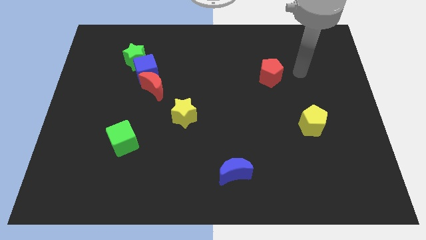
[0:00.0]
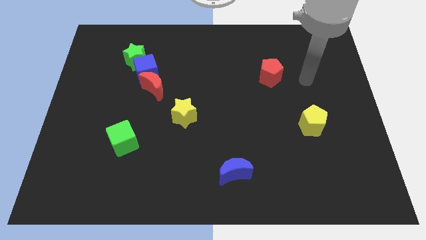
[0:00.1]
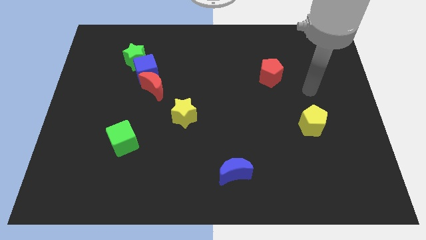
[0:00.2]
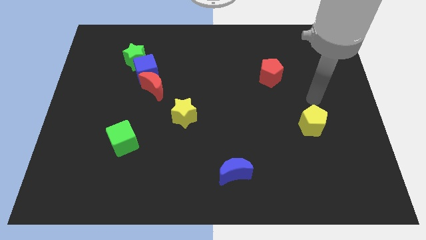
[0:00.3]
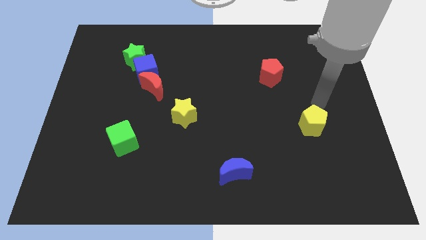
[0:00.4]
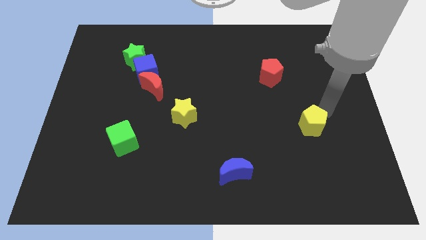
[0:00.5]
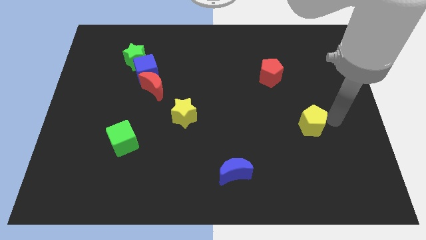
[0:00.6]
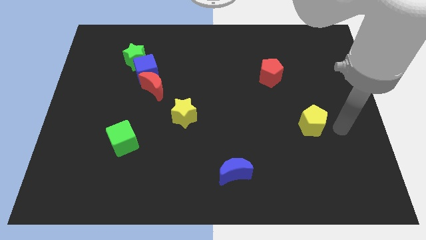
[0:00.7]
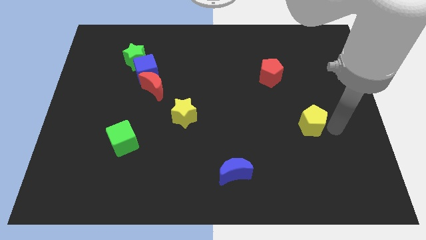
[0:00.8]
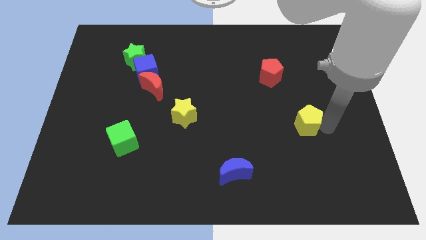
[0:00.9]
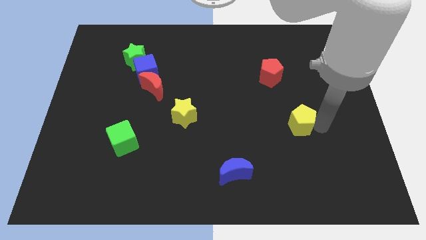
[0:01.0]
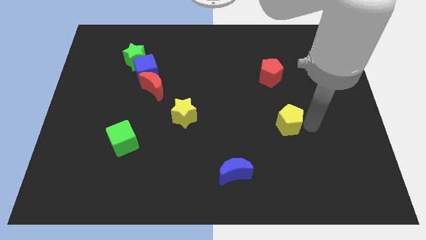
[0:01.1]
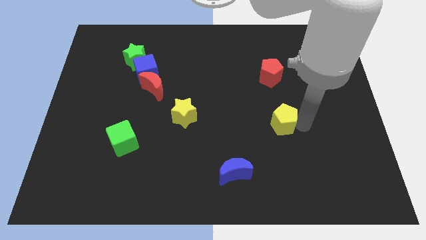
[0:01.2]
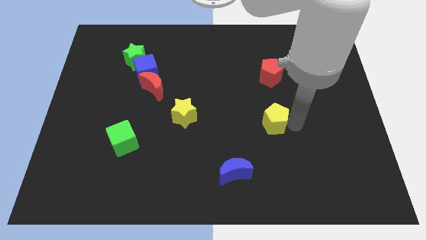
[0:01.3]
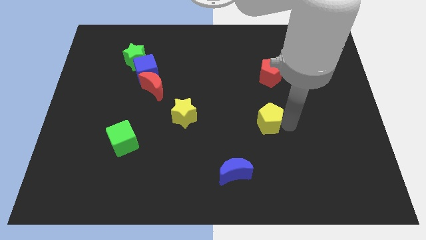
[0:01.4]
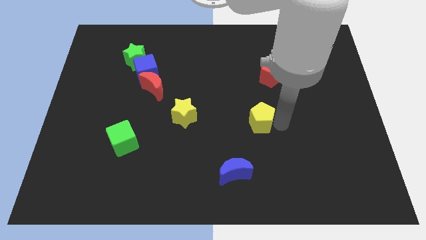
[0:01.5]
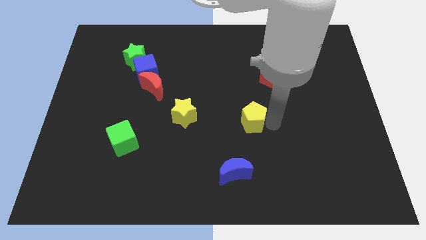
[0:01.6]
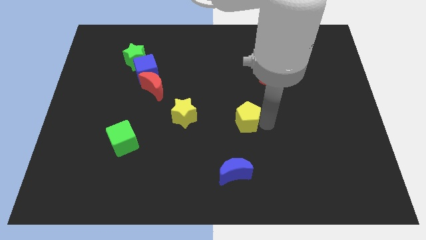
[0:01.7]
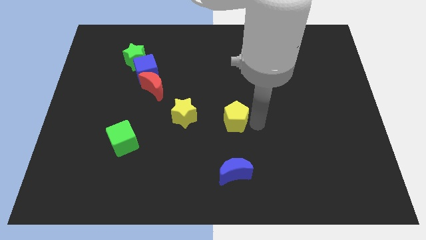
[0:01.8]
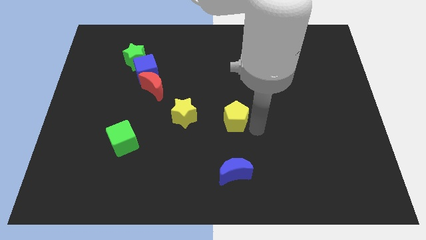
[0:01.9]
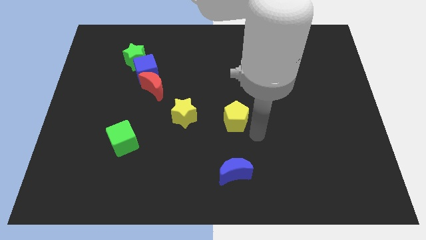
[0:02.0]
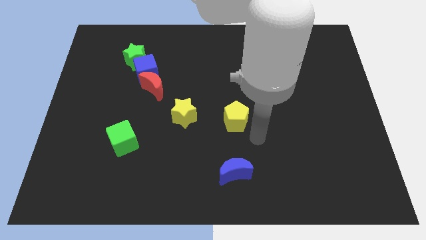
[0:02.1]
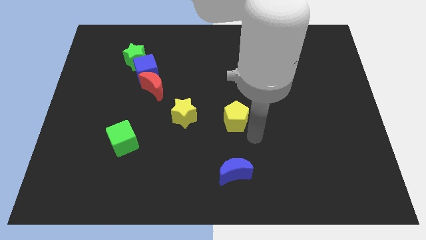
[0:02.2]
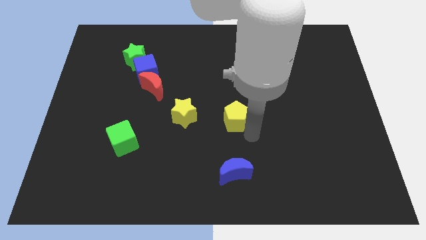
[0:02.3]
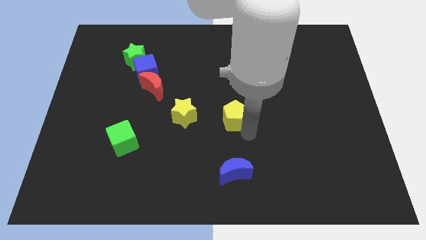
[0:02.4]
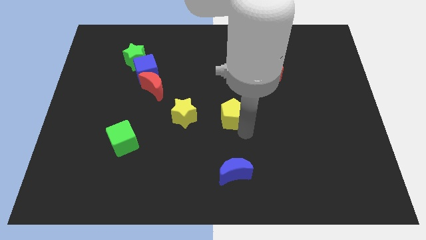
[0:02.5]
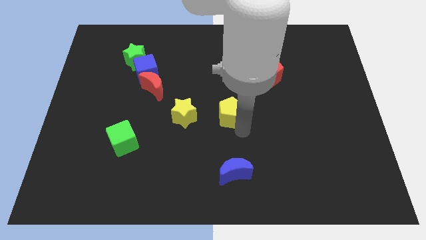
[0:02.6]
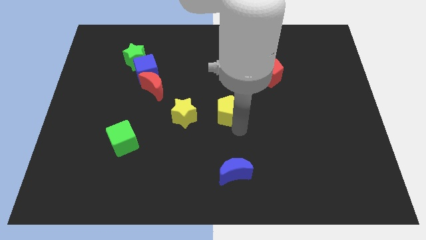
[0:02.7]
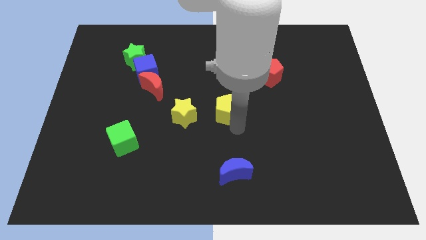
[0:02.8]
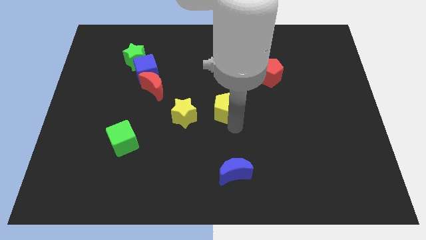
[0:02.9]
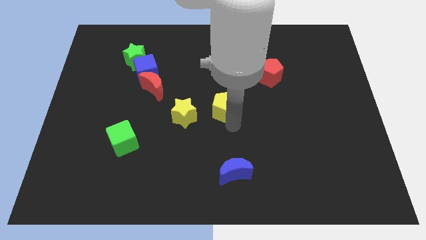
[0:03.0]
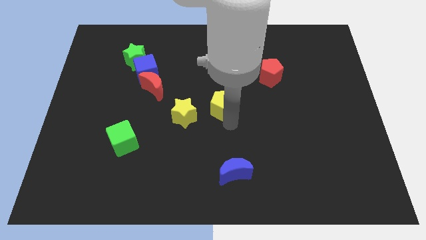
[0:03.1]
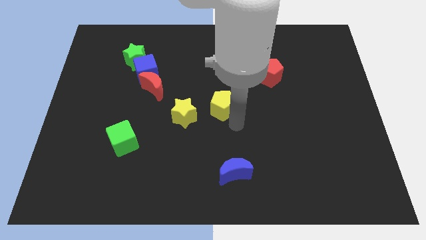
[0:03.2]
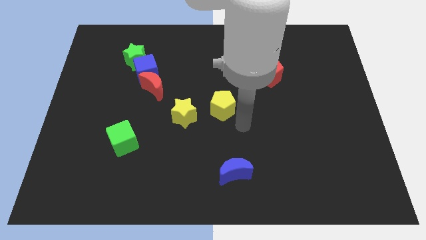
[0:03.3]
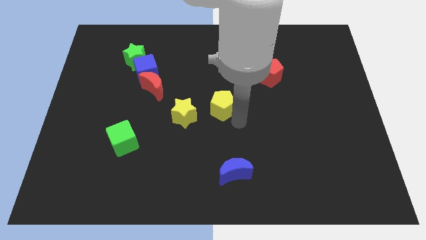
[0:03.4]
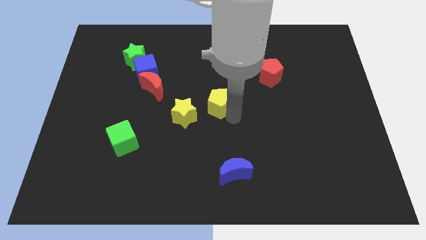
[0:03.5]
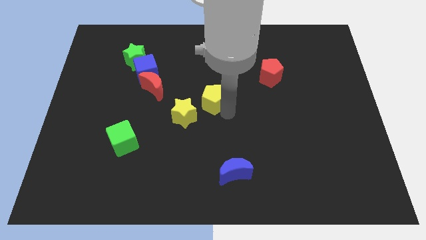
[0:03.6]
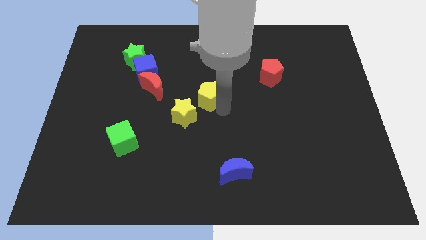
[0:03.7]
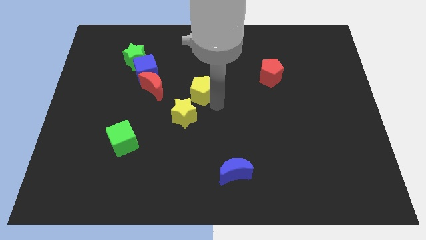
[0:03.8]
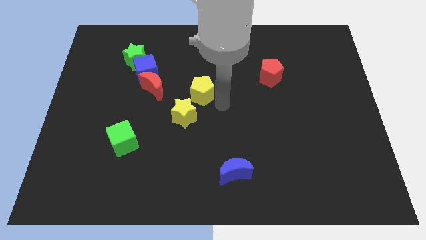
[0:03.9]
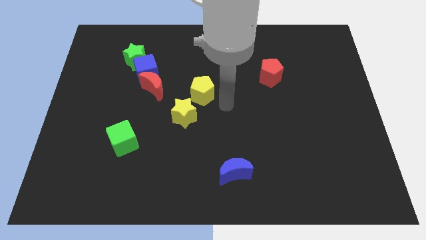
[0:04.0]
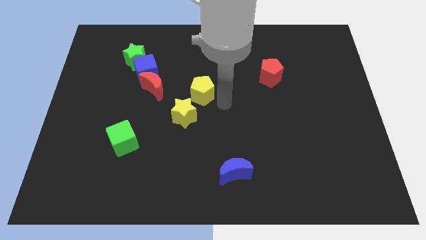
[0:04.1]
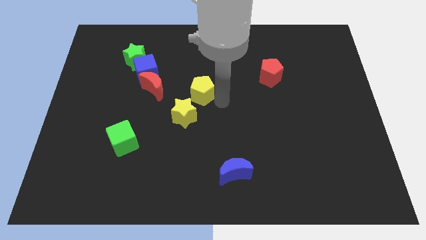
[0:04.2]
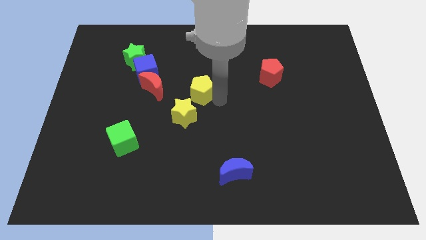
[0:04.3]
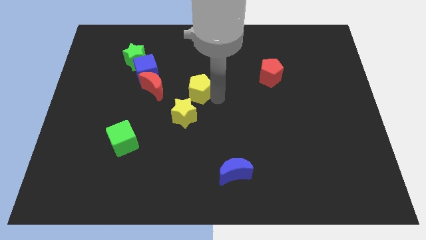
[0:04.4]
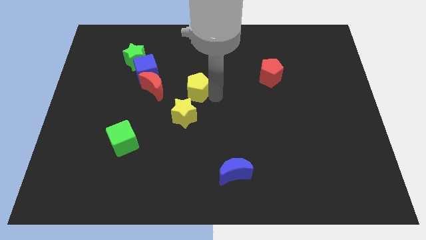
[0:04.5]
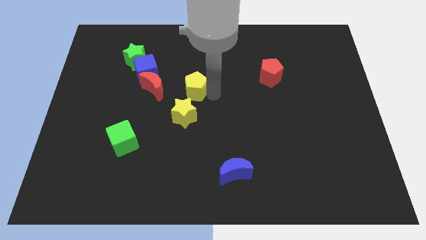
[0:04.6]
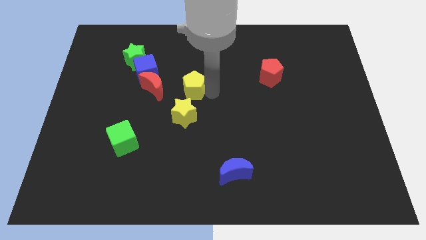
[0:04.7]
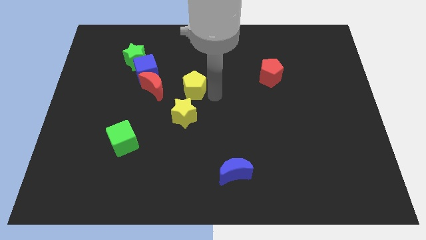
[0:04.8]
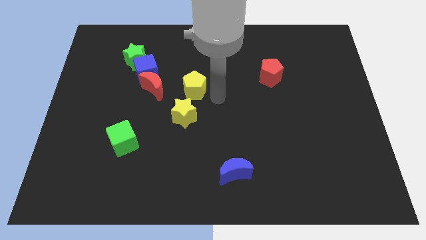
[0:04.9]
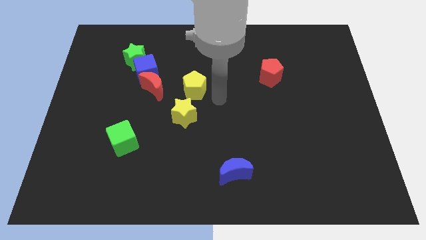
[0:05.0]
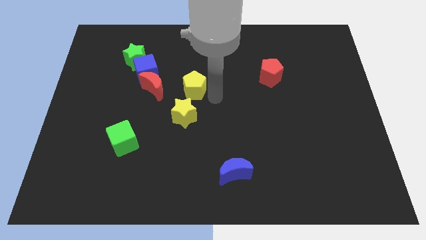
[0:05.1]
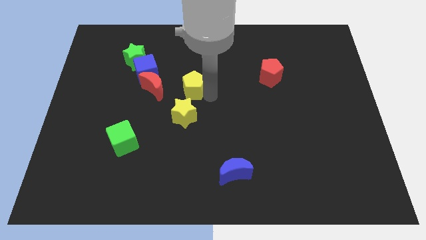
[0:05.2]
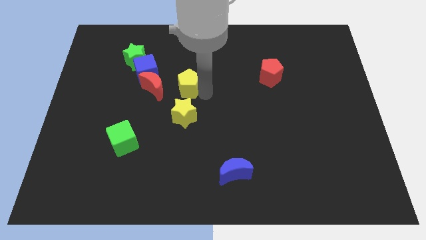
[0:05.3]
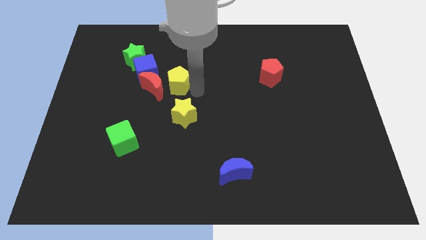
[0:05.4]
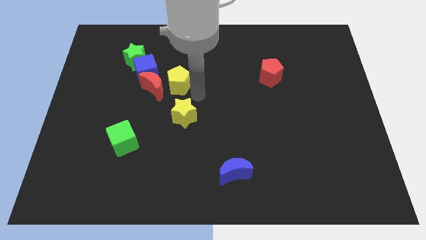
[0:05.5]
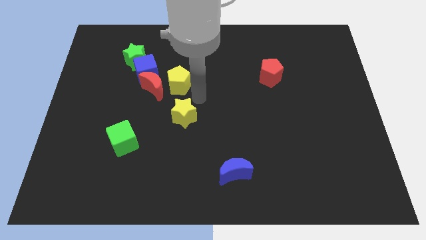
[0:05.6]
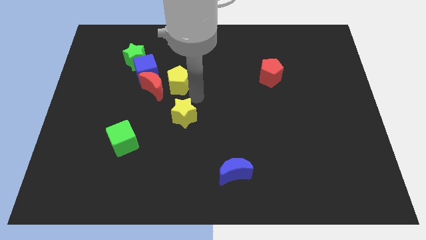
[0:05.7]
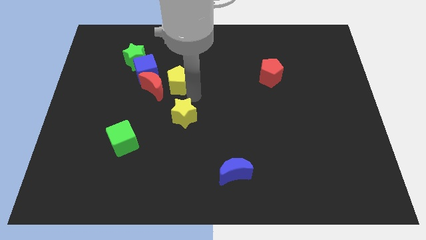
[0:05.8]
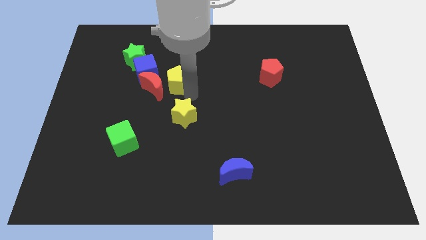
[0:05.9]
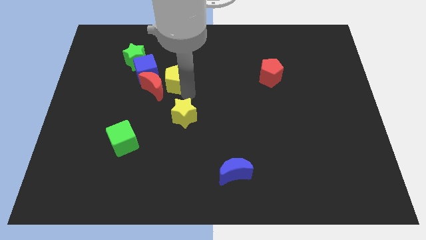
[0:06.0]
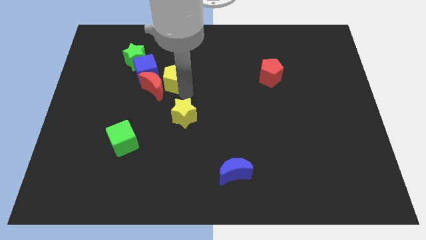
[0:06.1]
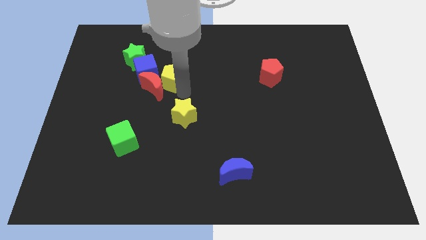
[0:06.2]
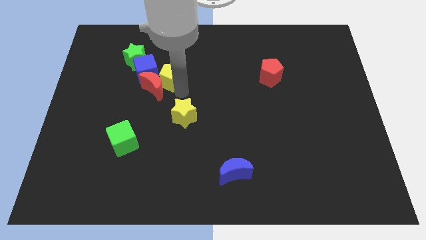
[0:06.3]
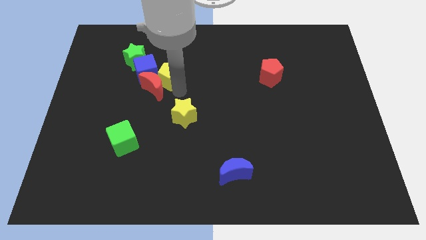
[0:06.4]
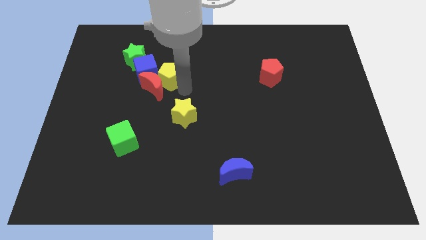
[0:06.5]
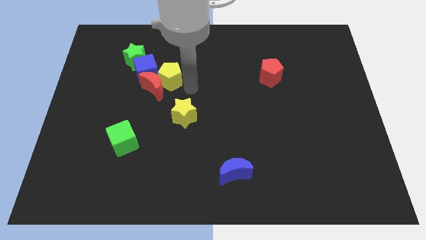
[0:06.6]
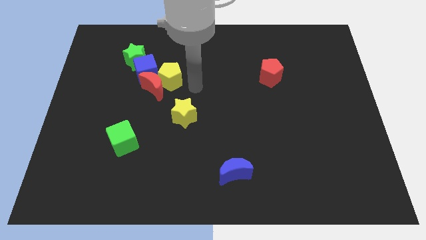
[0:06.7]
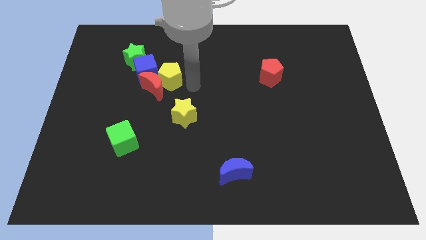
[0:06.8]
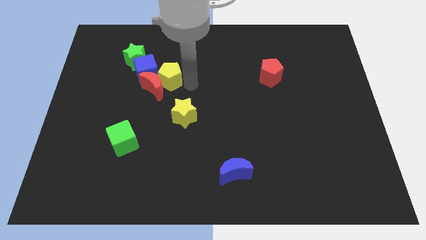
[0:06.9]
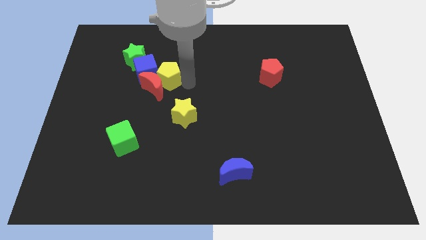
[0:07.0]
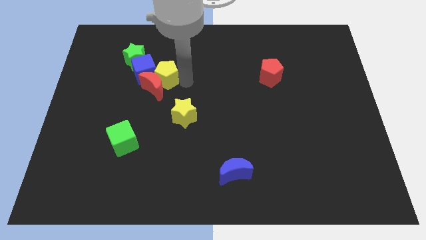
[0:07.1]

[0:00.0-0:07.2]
move the yellow pentagon to the blue cube

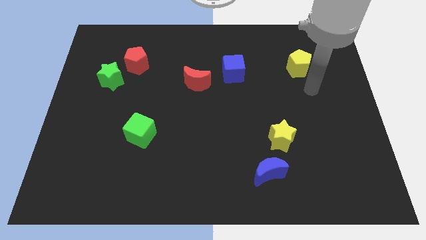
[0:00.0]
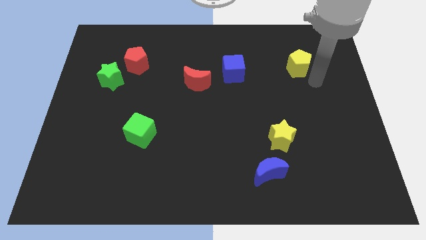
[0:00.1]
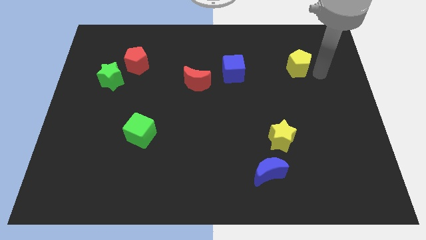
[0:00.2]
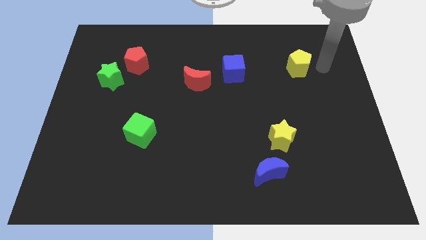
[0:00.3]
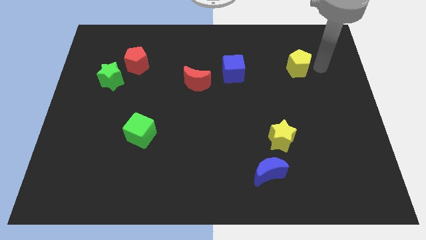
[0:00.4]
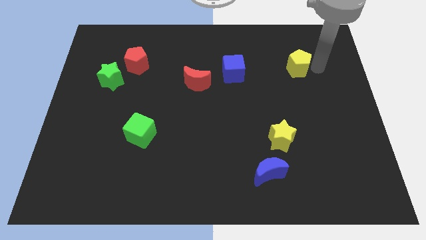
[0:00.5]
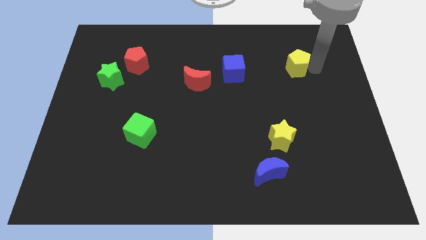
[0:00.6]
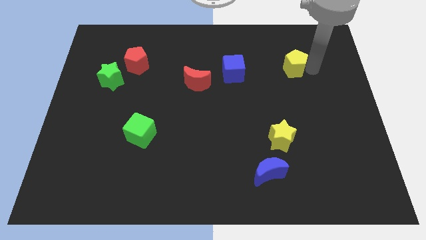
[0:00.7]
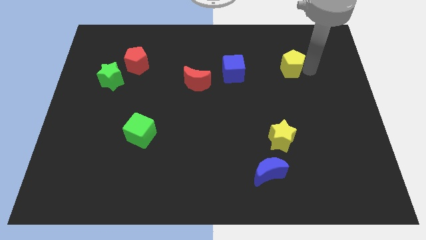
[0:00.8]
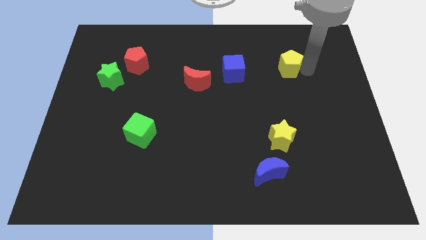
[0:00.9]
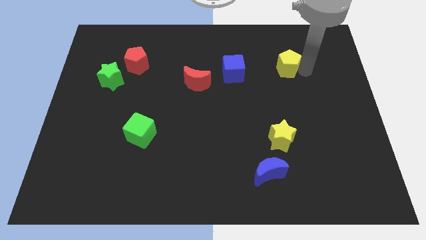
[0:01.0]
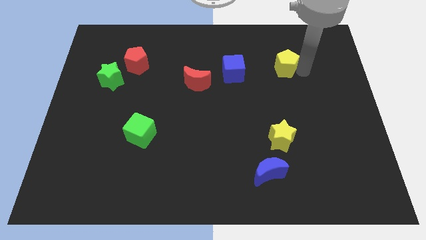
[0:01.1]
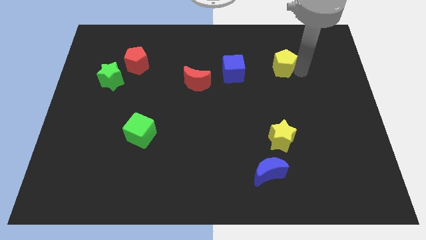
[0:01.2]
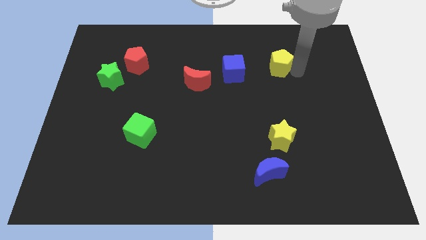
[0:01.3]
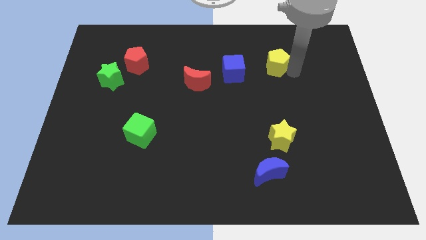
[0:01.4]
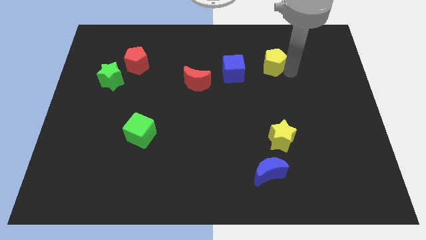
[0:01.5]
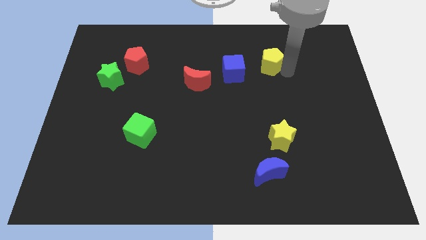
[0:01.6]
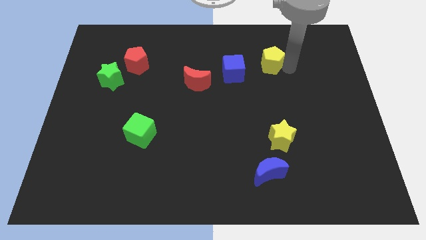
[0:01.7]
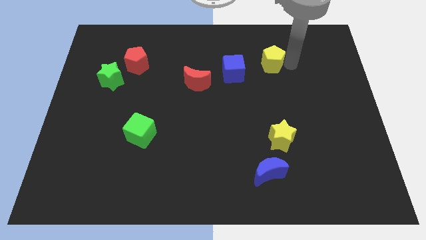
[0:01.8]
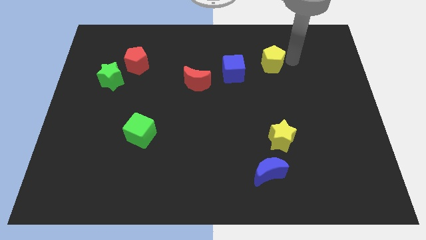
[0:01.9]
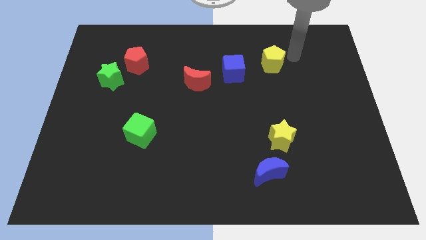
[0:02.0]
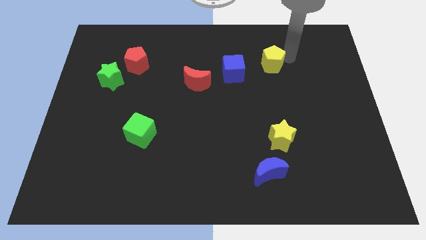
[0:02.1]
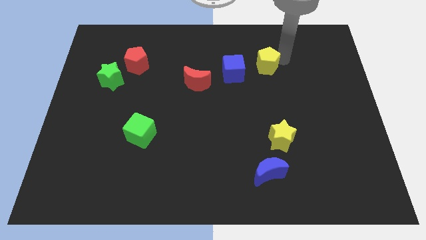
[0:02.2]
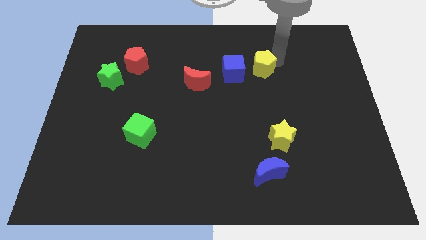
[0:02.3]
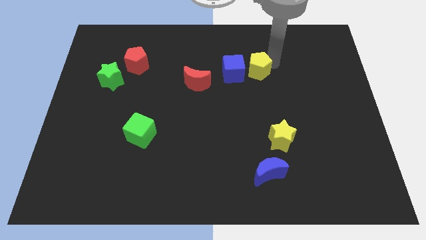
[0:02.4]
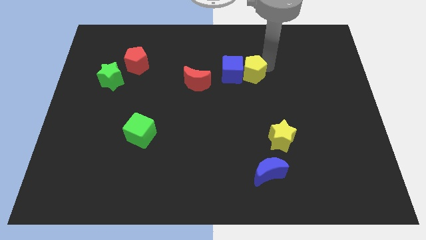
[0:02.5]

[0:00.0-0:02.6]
push the yellow pentagon next to the blue cube
